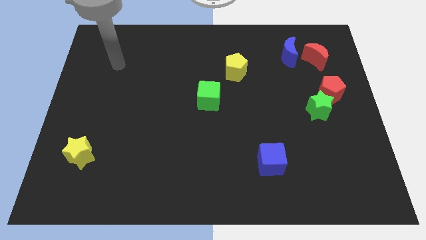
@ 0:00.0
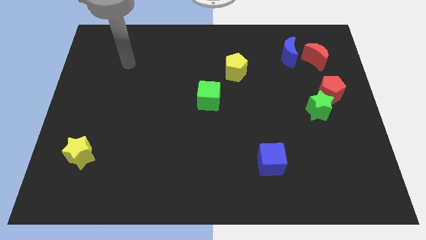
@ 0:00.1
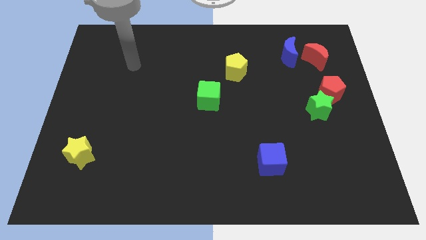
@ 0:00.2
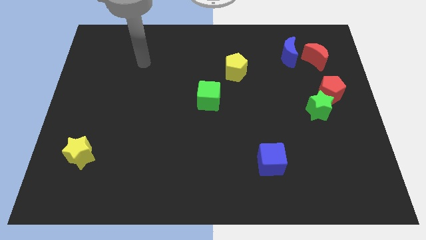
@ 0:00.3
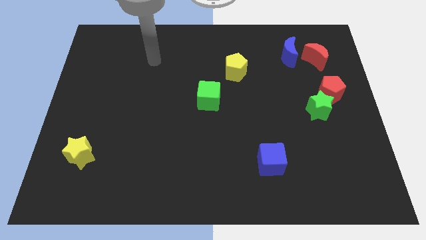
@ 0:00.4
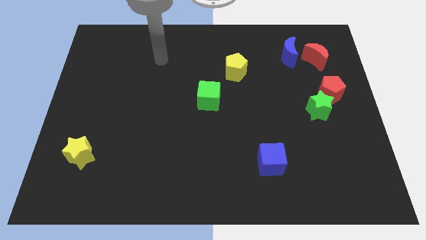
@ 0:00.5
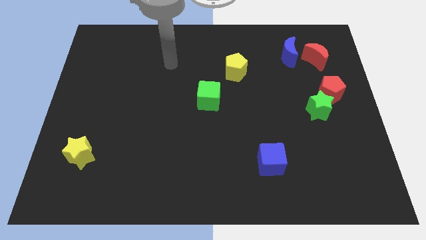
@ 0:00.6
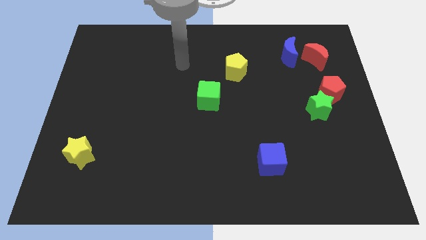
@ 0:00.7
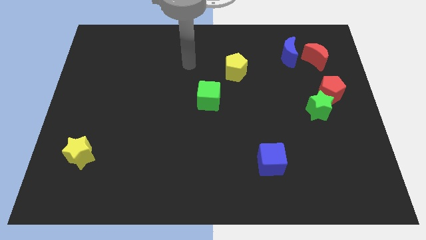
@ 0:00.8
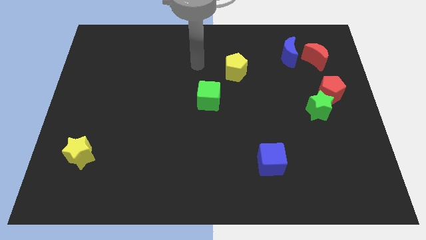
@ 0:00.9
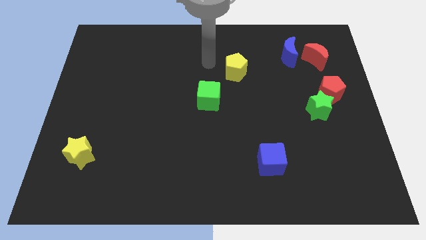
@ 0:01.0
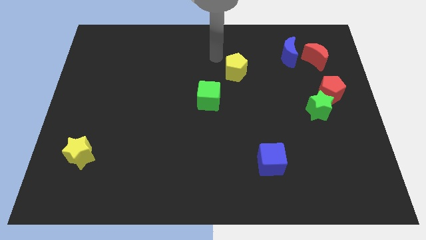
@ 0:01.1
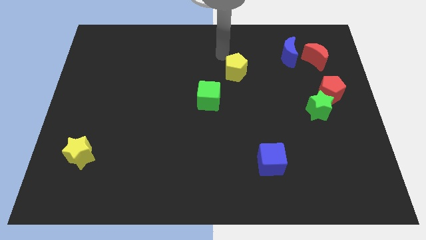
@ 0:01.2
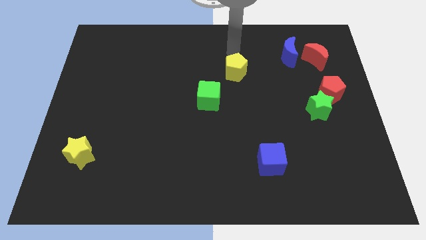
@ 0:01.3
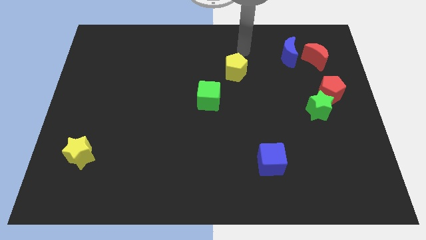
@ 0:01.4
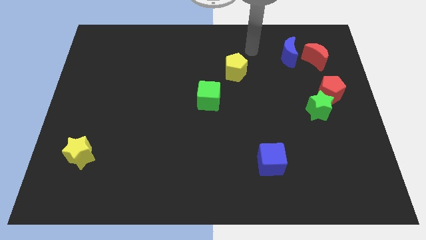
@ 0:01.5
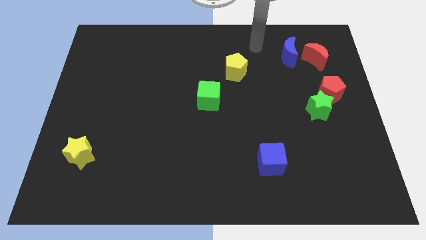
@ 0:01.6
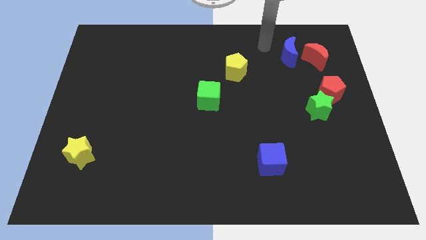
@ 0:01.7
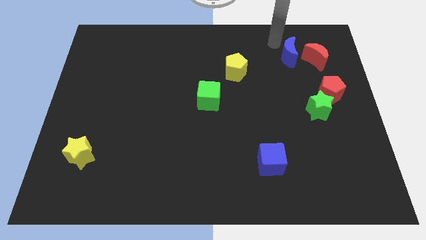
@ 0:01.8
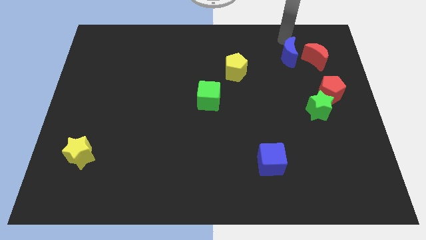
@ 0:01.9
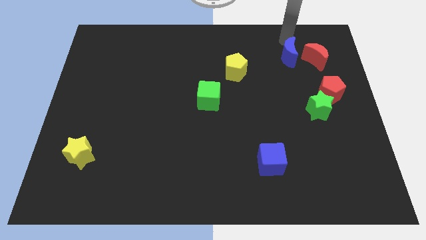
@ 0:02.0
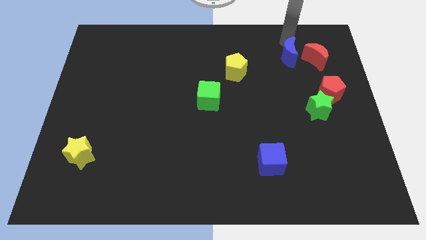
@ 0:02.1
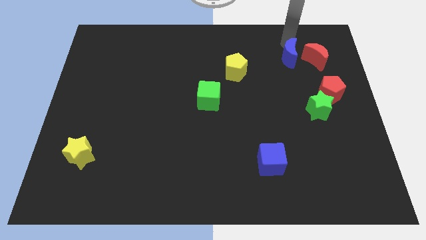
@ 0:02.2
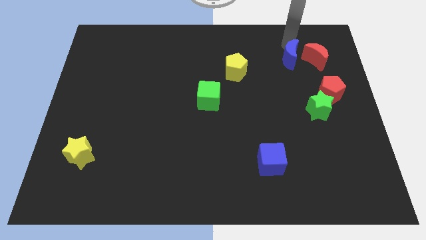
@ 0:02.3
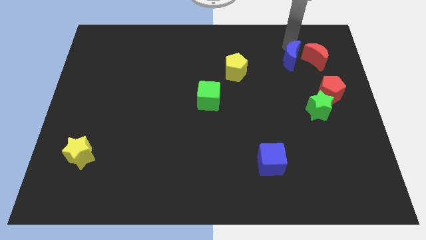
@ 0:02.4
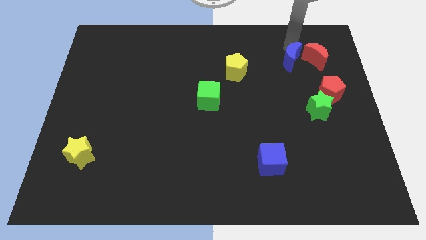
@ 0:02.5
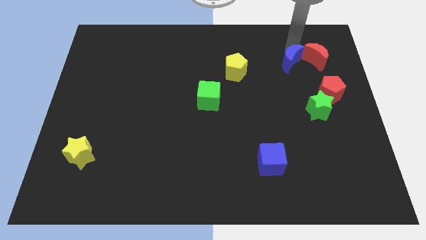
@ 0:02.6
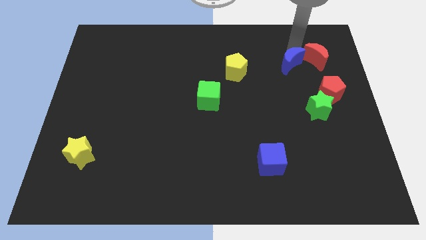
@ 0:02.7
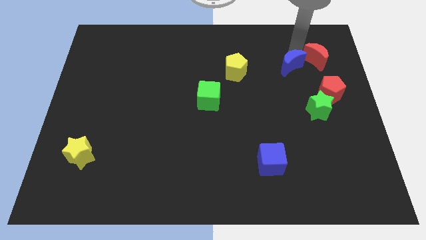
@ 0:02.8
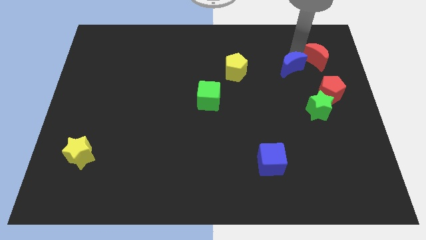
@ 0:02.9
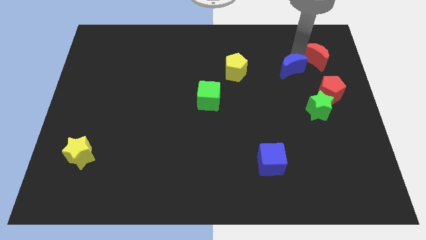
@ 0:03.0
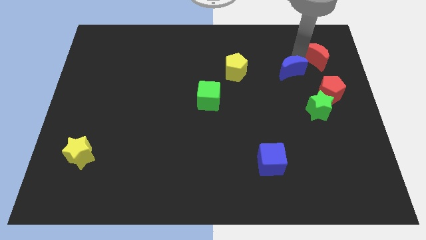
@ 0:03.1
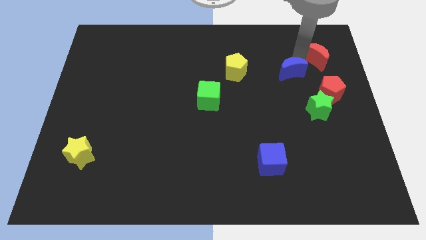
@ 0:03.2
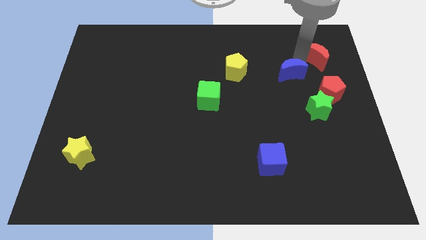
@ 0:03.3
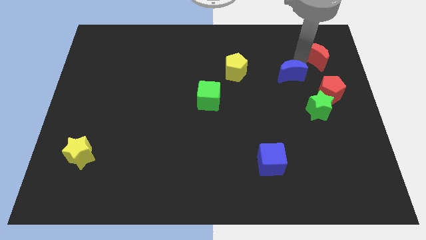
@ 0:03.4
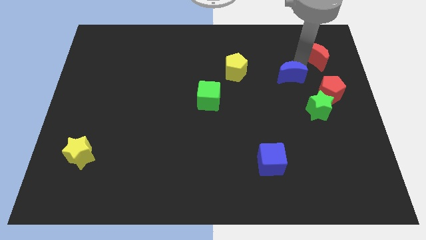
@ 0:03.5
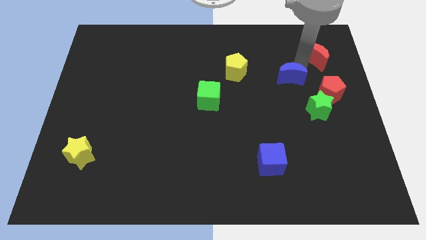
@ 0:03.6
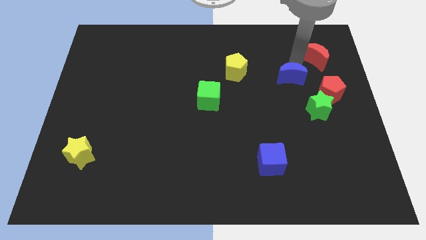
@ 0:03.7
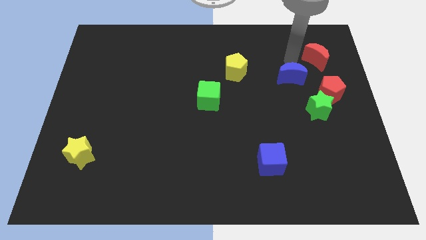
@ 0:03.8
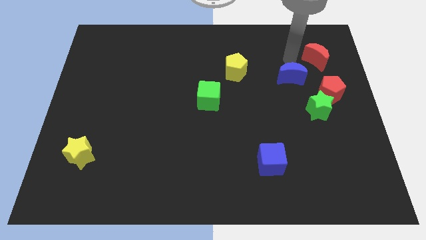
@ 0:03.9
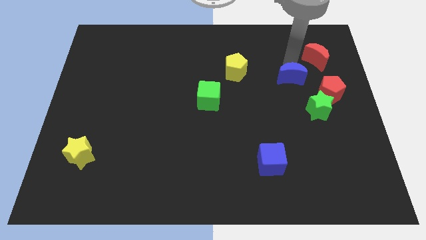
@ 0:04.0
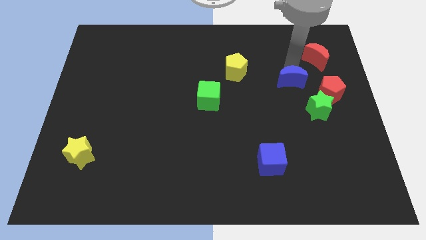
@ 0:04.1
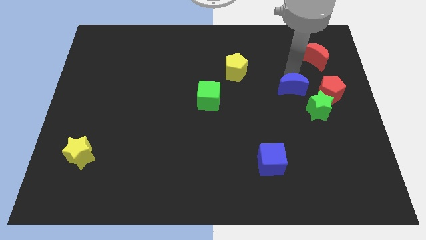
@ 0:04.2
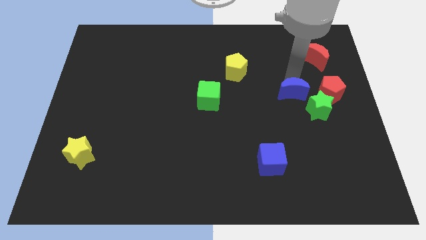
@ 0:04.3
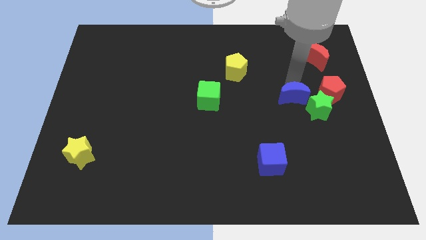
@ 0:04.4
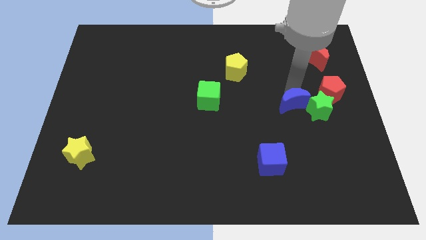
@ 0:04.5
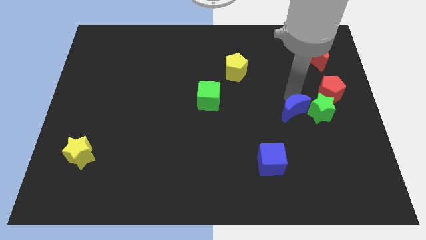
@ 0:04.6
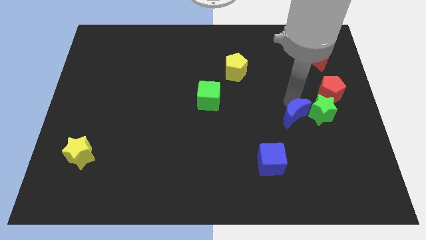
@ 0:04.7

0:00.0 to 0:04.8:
slide the blue moon downwards

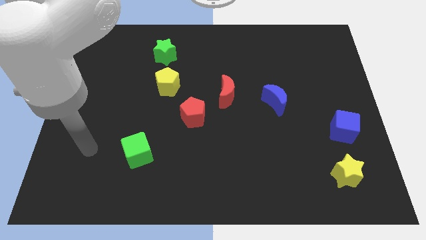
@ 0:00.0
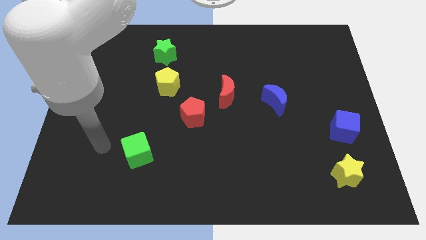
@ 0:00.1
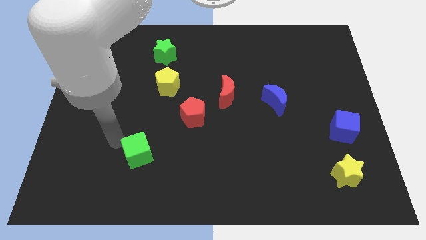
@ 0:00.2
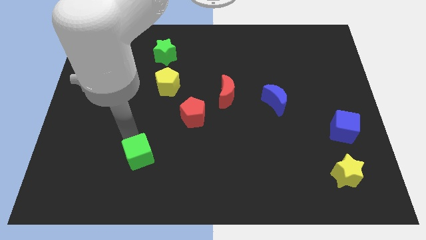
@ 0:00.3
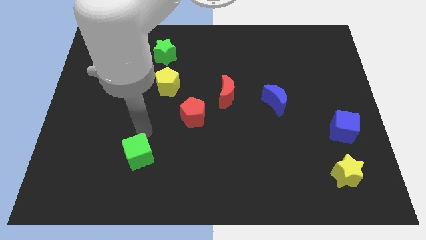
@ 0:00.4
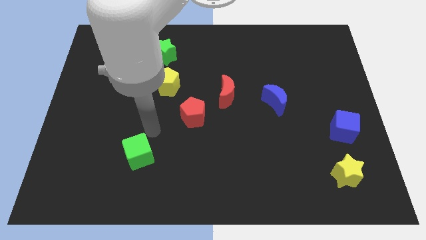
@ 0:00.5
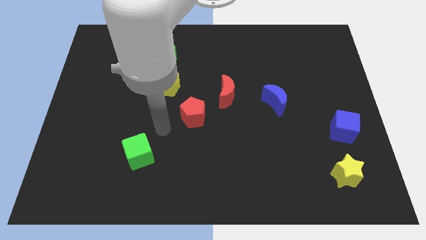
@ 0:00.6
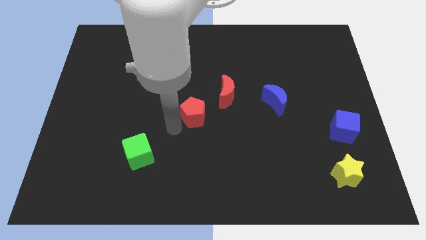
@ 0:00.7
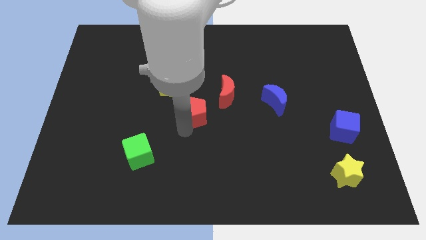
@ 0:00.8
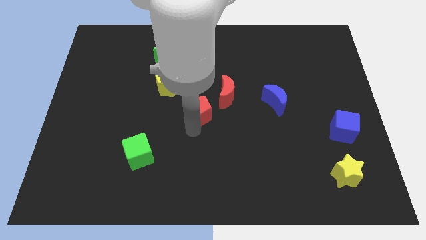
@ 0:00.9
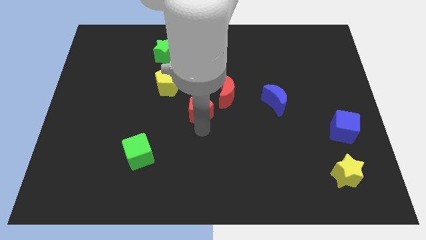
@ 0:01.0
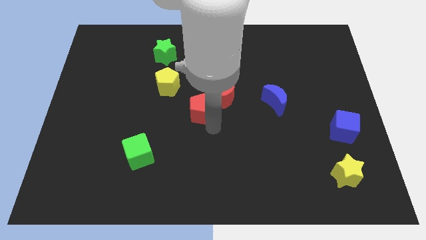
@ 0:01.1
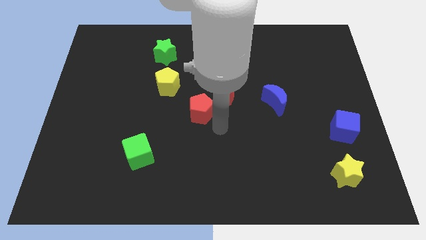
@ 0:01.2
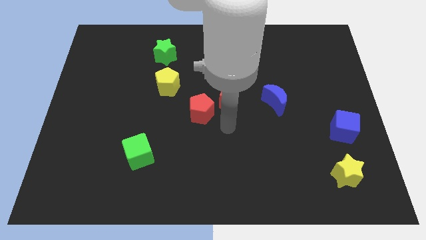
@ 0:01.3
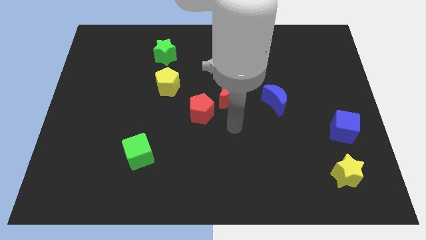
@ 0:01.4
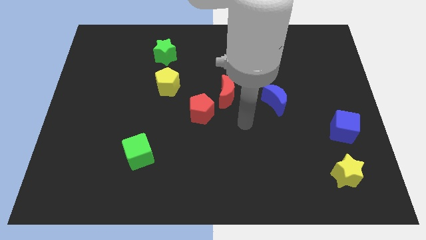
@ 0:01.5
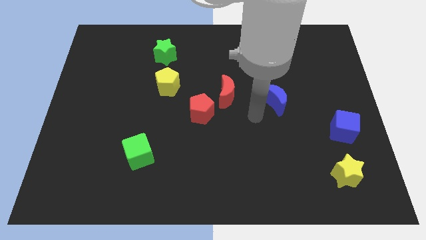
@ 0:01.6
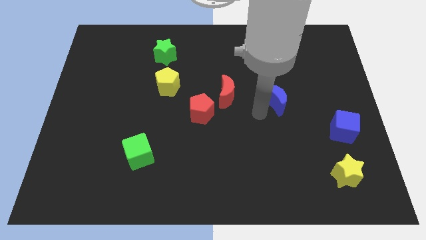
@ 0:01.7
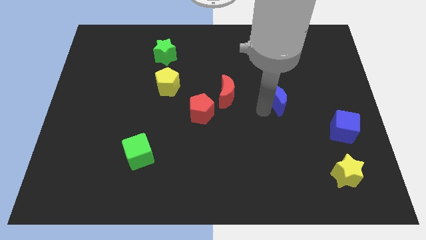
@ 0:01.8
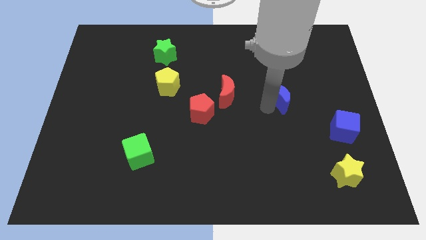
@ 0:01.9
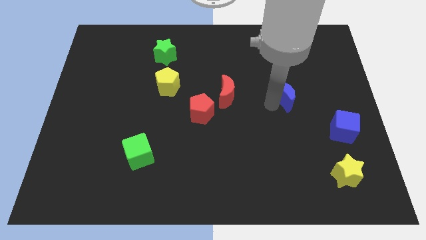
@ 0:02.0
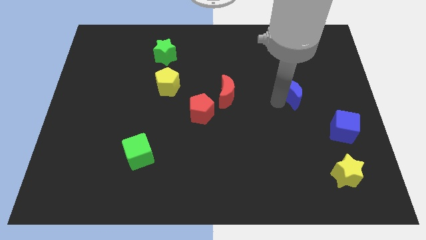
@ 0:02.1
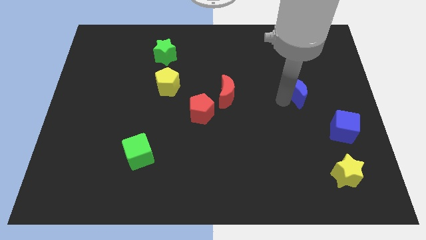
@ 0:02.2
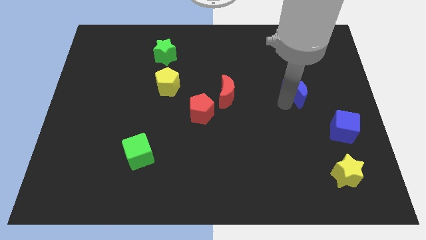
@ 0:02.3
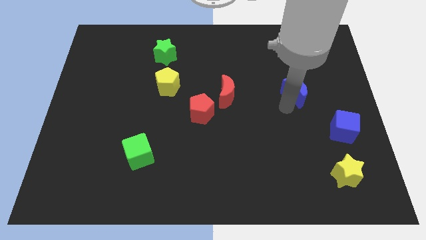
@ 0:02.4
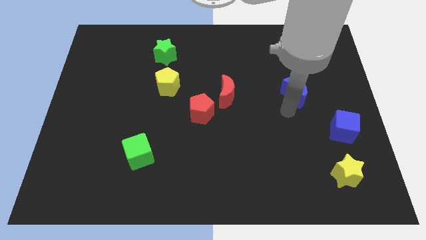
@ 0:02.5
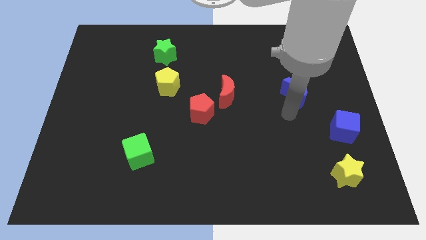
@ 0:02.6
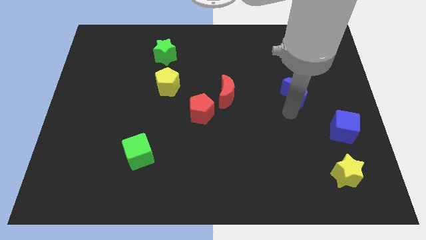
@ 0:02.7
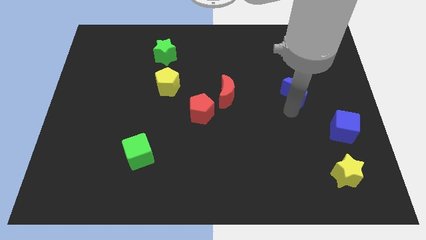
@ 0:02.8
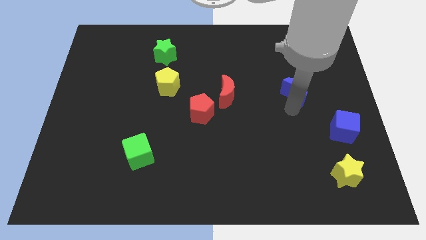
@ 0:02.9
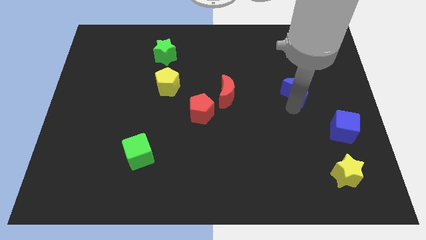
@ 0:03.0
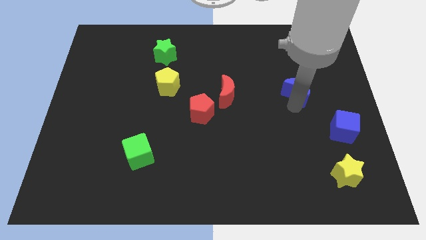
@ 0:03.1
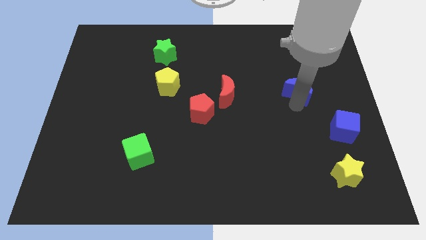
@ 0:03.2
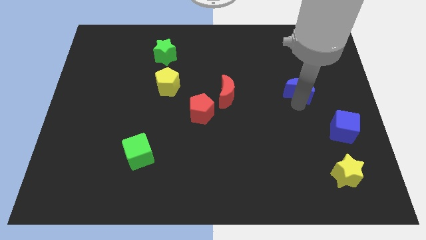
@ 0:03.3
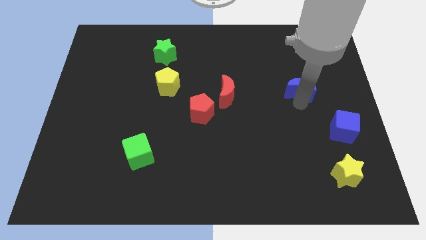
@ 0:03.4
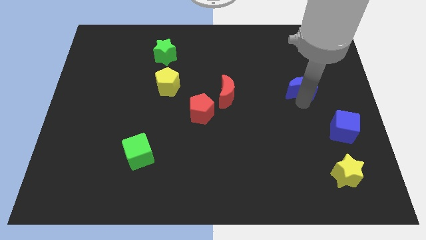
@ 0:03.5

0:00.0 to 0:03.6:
slightly move the blue moon diagonally upwards and right
